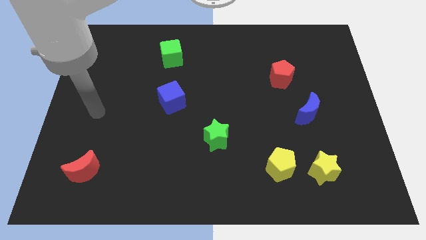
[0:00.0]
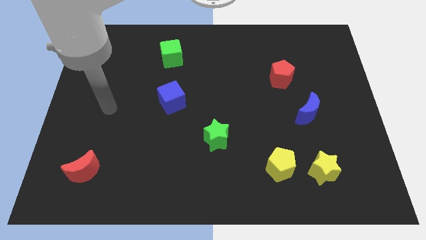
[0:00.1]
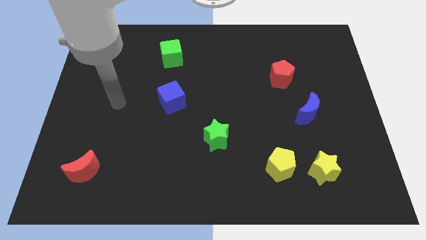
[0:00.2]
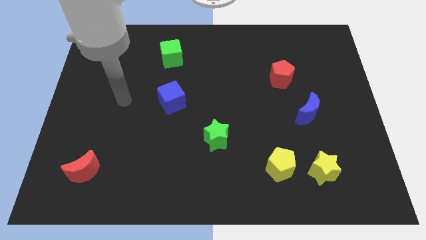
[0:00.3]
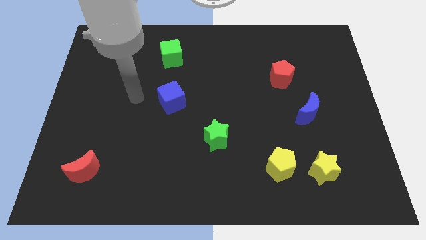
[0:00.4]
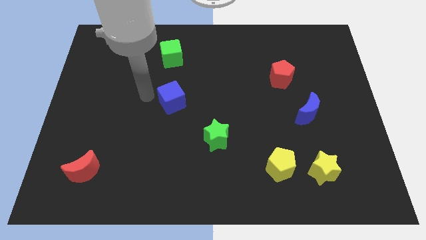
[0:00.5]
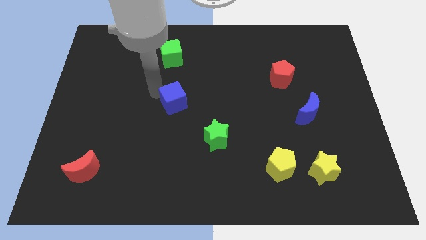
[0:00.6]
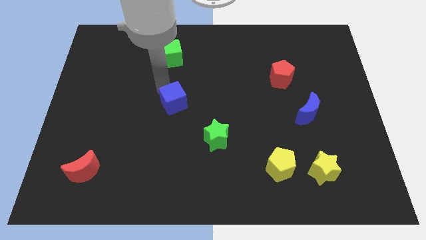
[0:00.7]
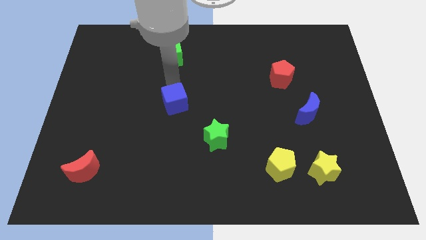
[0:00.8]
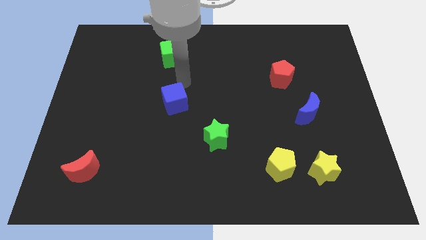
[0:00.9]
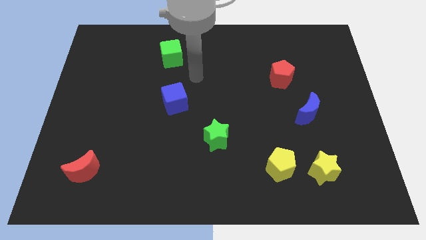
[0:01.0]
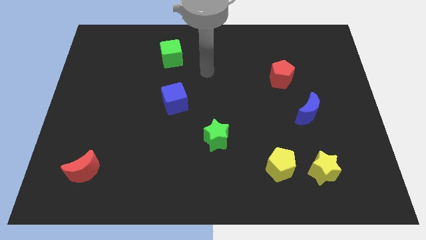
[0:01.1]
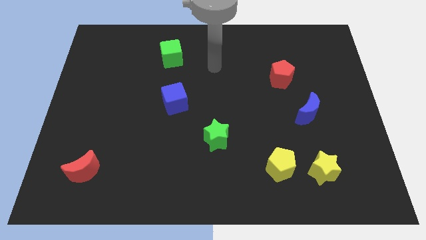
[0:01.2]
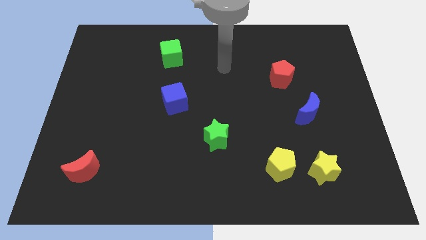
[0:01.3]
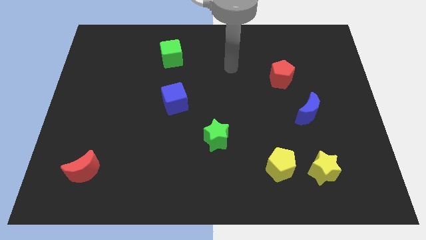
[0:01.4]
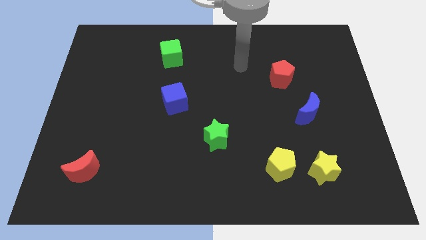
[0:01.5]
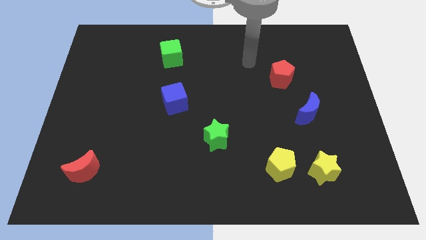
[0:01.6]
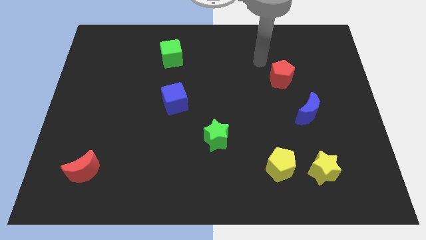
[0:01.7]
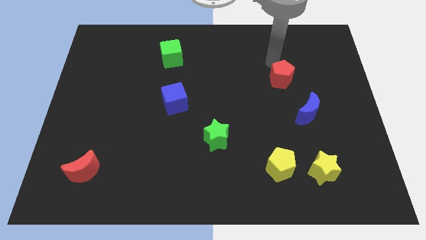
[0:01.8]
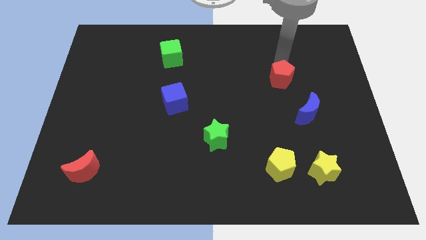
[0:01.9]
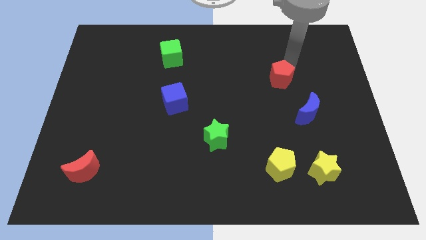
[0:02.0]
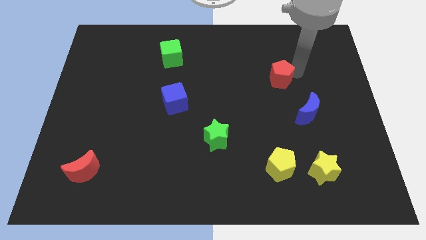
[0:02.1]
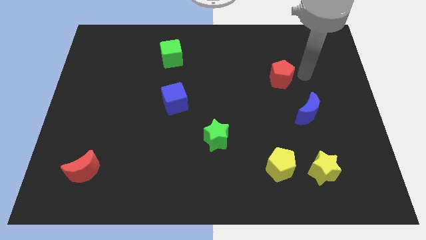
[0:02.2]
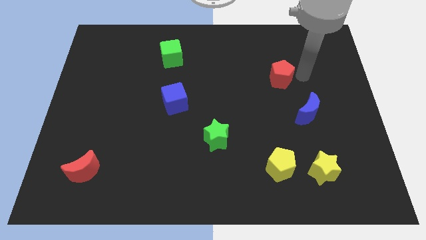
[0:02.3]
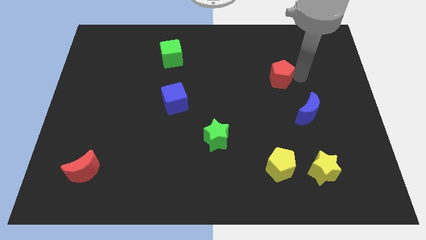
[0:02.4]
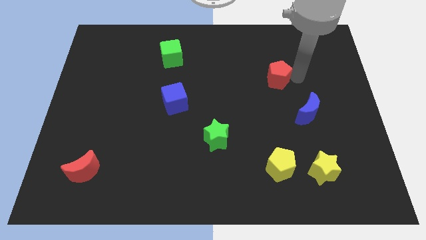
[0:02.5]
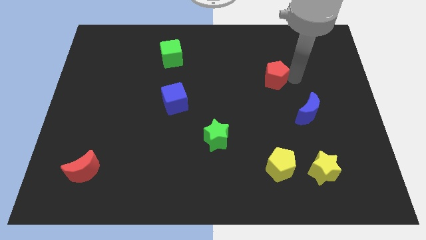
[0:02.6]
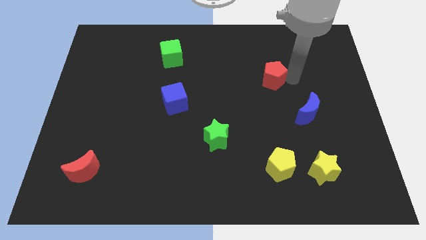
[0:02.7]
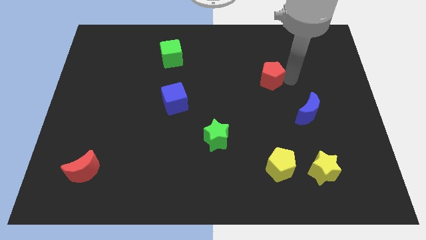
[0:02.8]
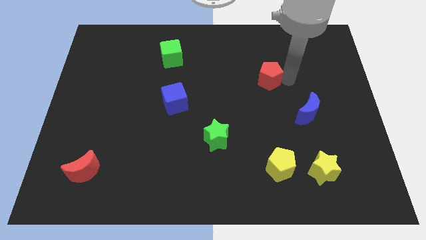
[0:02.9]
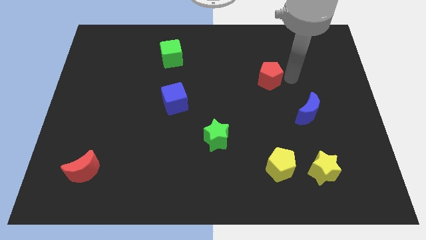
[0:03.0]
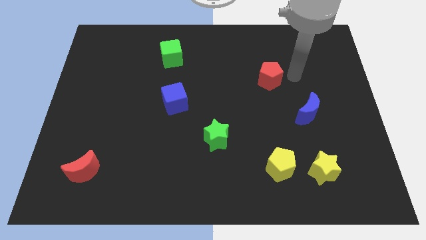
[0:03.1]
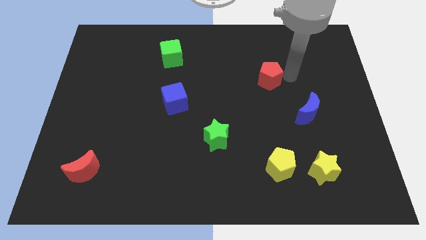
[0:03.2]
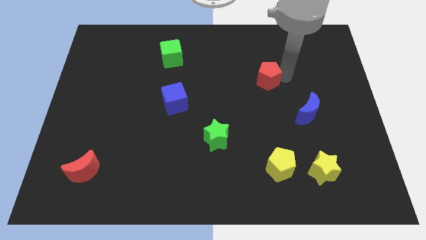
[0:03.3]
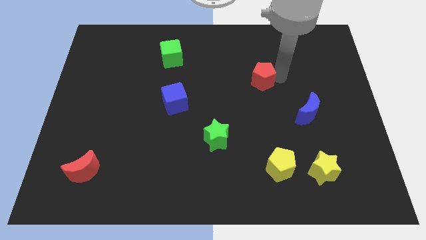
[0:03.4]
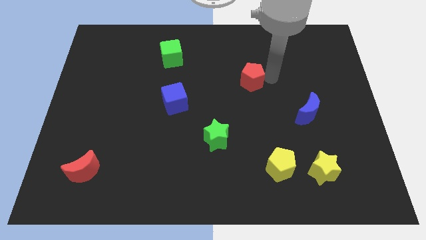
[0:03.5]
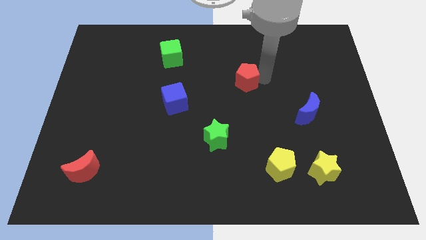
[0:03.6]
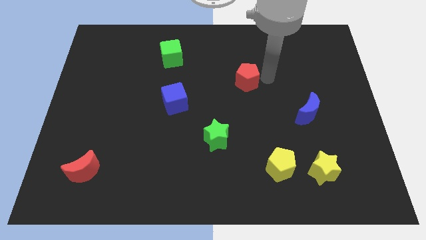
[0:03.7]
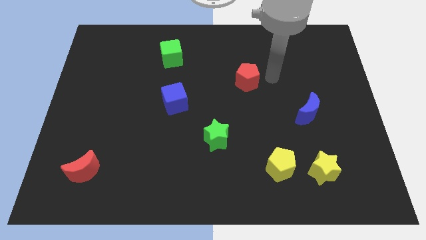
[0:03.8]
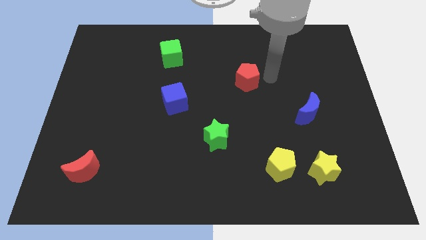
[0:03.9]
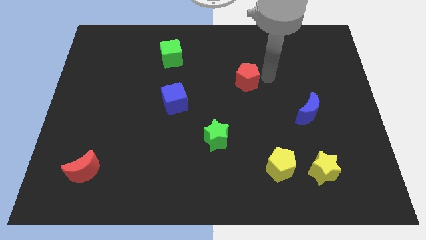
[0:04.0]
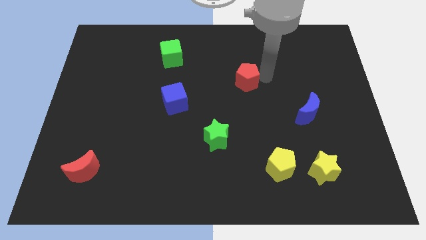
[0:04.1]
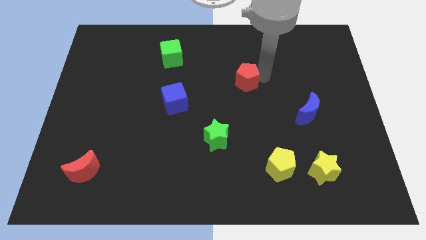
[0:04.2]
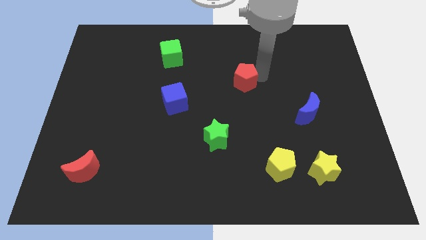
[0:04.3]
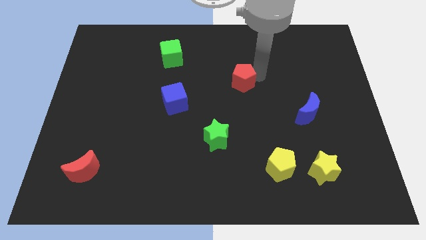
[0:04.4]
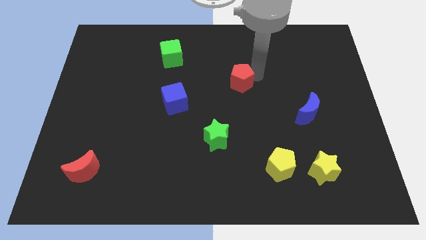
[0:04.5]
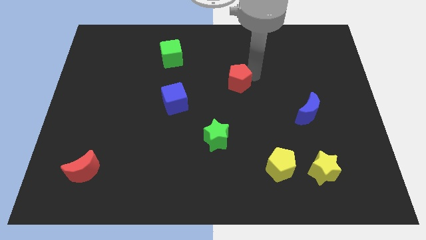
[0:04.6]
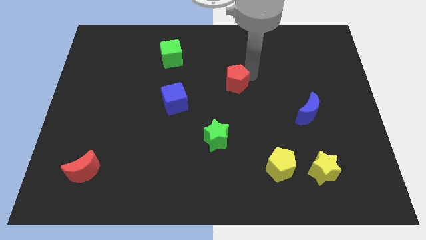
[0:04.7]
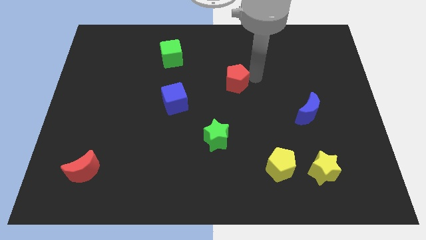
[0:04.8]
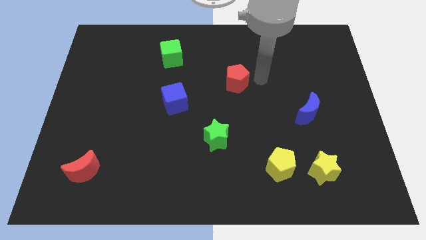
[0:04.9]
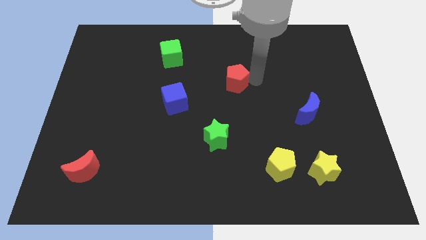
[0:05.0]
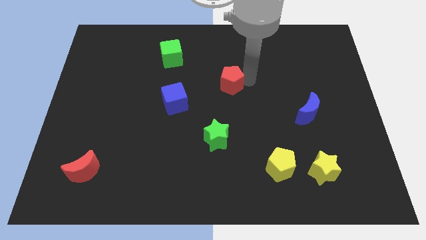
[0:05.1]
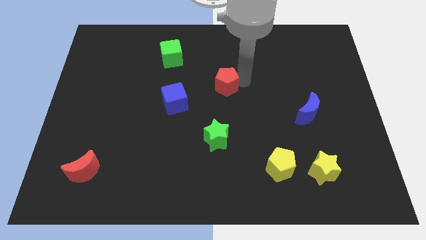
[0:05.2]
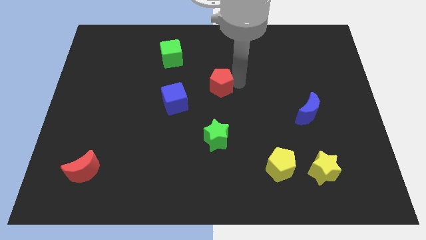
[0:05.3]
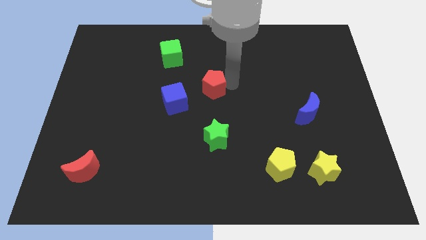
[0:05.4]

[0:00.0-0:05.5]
push the red pentagon diagonally up and to the right of the blue cube

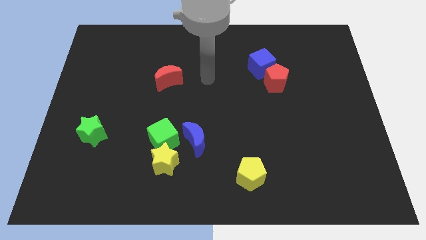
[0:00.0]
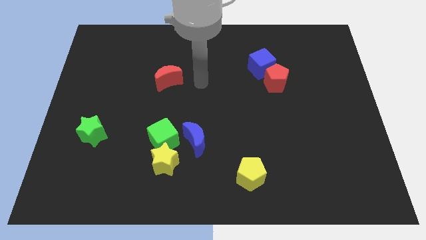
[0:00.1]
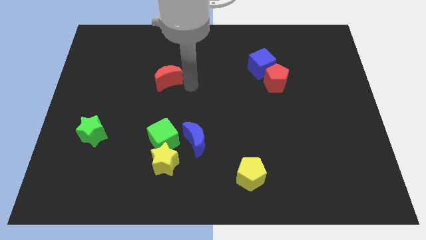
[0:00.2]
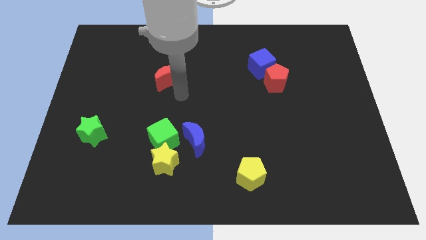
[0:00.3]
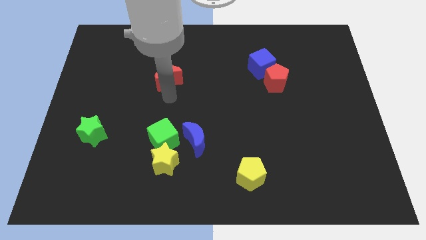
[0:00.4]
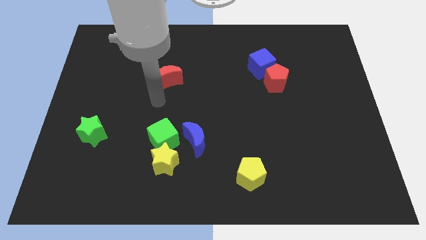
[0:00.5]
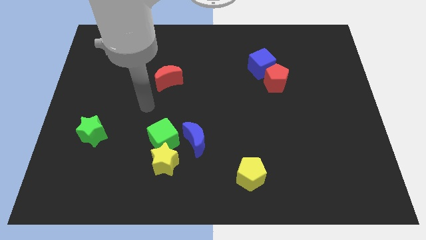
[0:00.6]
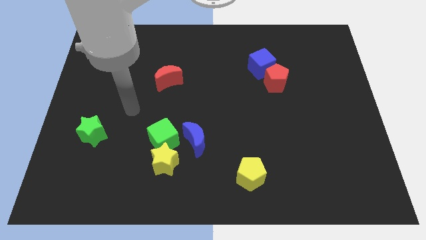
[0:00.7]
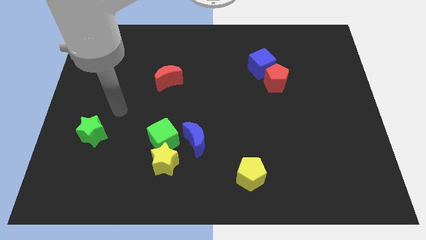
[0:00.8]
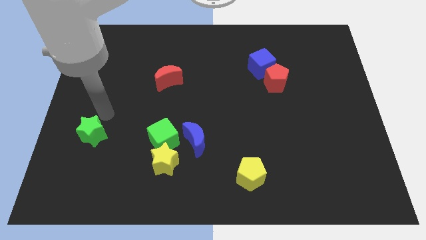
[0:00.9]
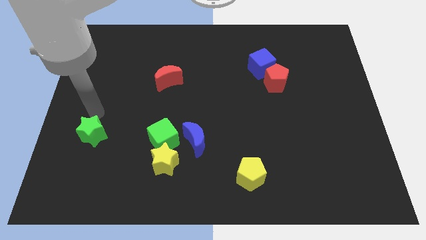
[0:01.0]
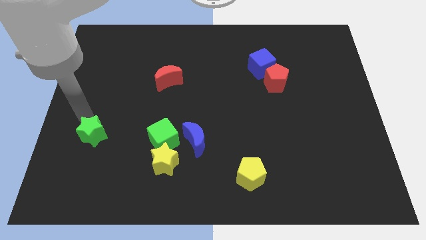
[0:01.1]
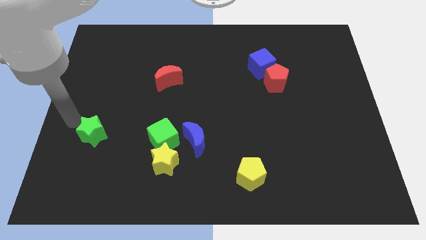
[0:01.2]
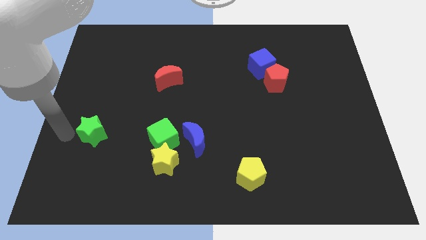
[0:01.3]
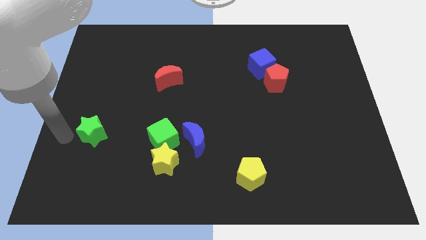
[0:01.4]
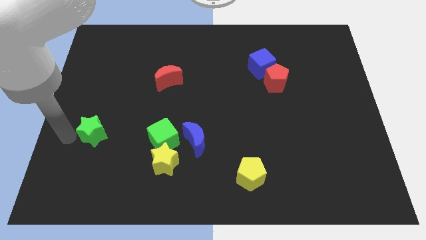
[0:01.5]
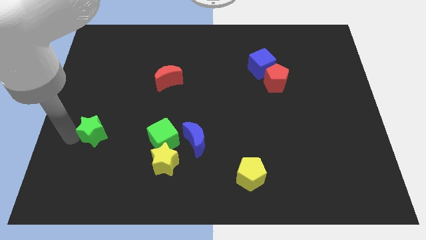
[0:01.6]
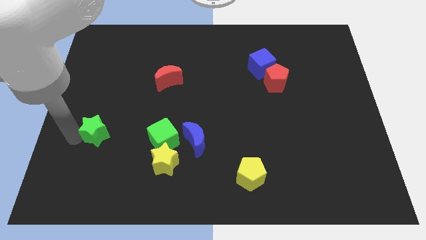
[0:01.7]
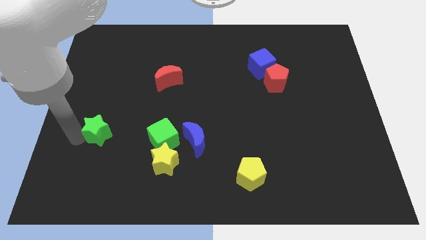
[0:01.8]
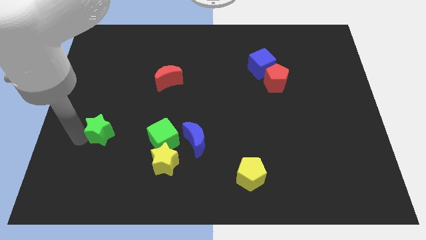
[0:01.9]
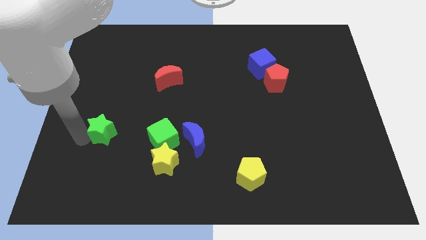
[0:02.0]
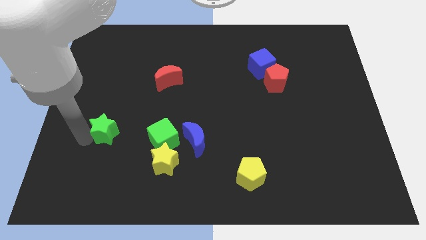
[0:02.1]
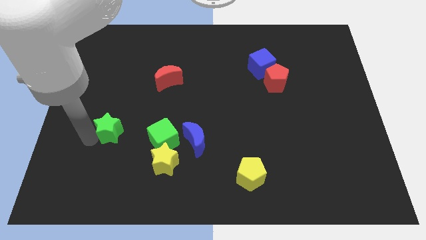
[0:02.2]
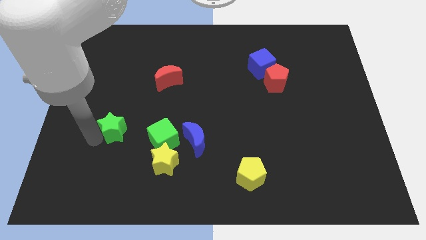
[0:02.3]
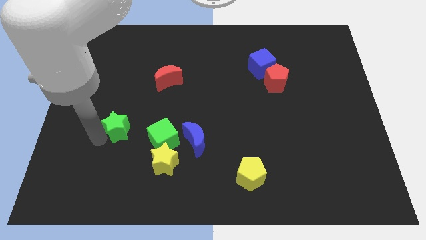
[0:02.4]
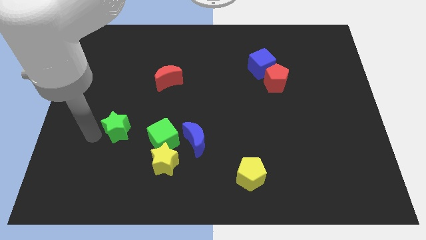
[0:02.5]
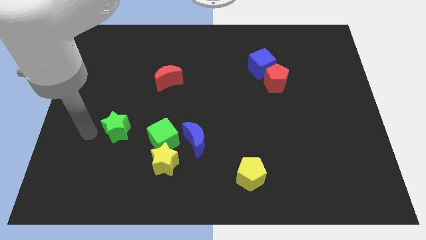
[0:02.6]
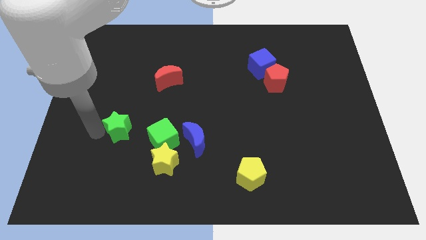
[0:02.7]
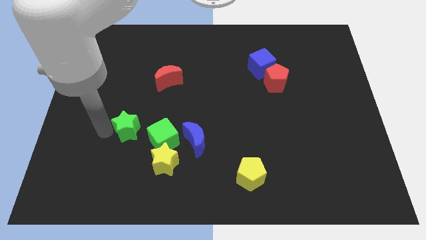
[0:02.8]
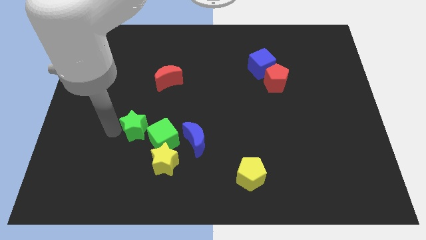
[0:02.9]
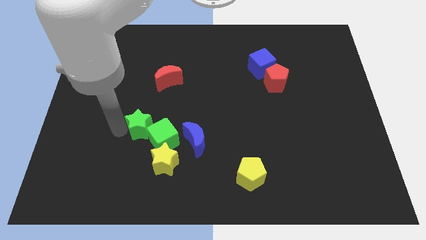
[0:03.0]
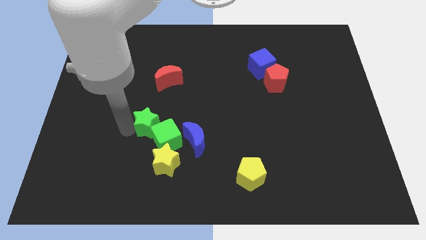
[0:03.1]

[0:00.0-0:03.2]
slide the green star to the top of the yellow star
